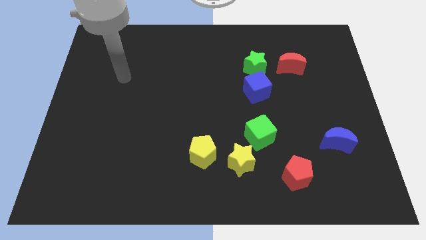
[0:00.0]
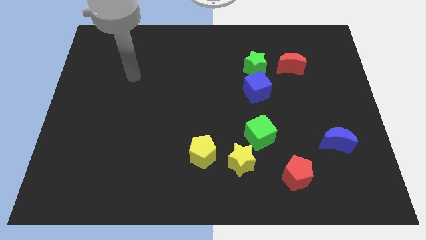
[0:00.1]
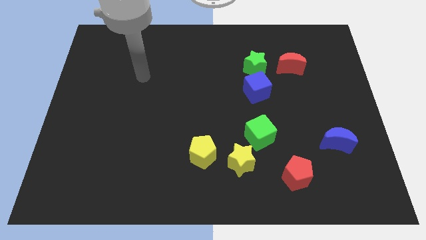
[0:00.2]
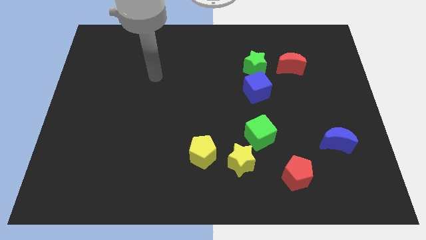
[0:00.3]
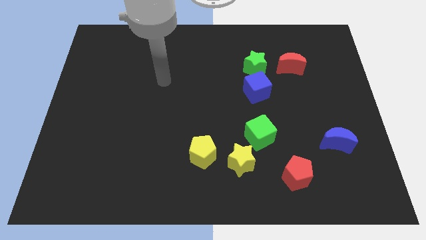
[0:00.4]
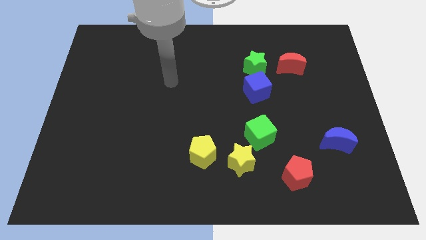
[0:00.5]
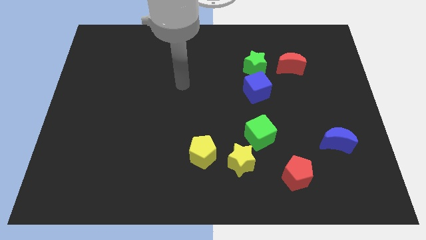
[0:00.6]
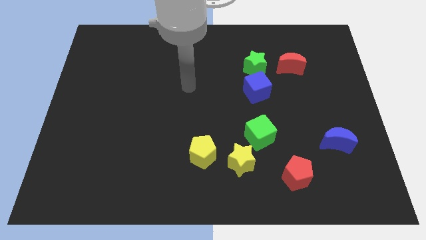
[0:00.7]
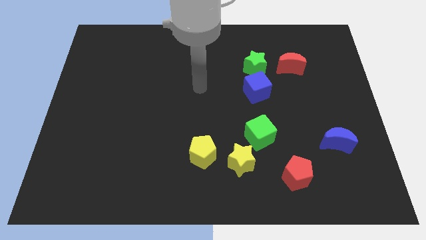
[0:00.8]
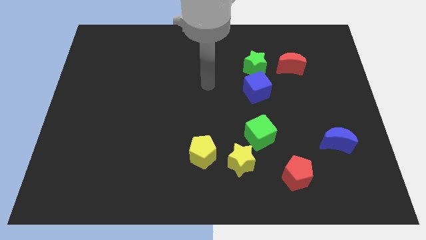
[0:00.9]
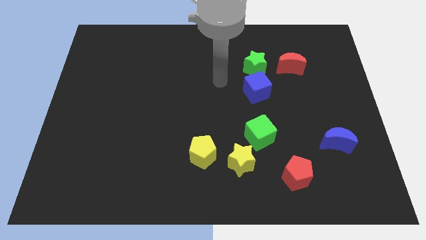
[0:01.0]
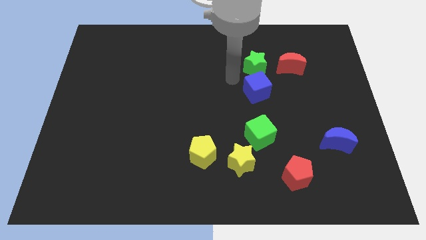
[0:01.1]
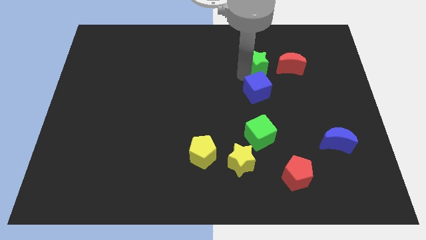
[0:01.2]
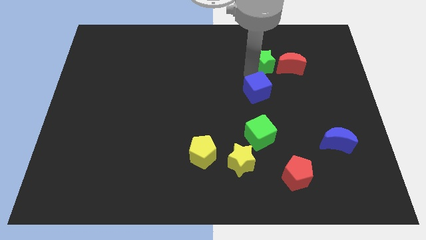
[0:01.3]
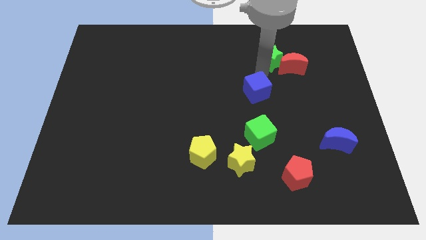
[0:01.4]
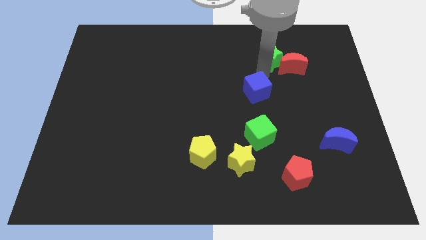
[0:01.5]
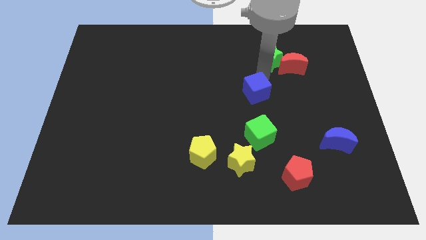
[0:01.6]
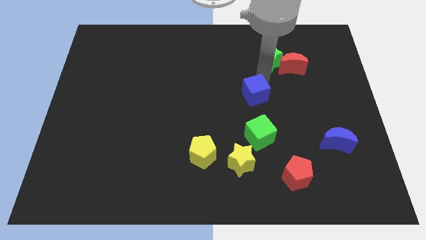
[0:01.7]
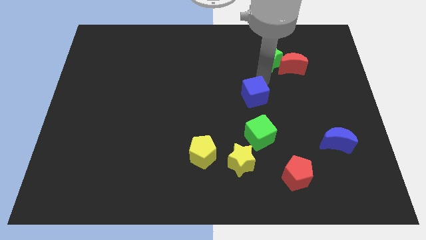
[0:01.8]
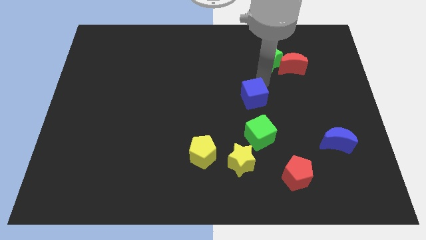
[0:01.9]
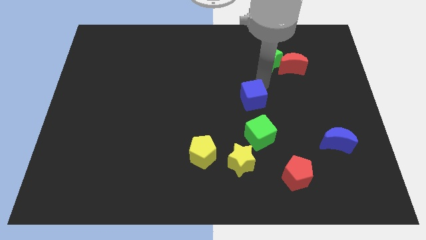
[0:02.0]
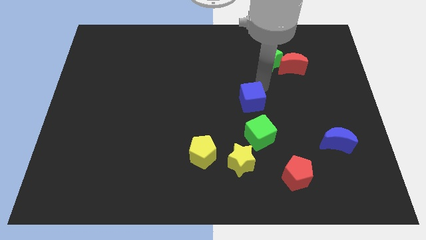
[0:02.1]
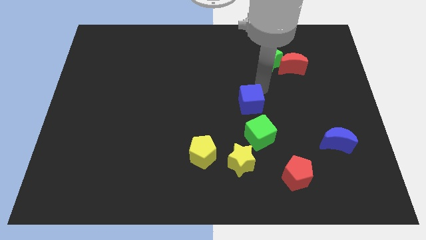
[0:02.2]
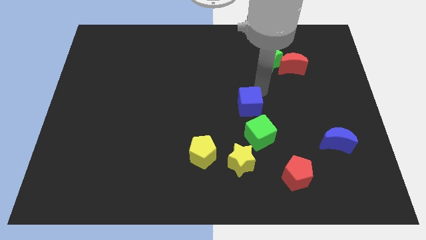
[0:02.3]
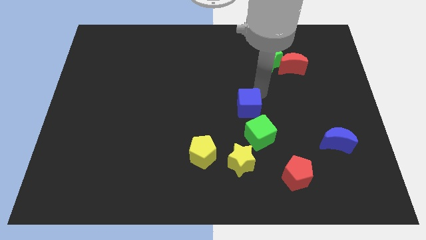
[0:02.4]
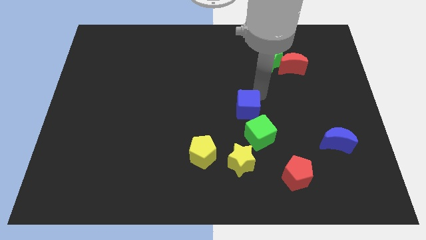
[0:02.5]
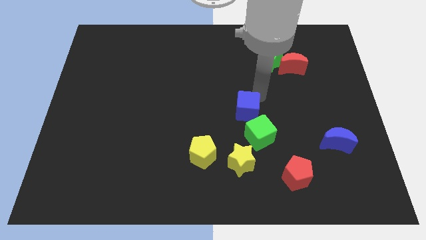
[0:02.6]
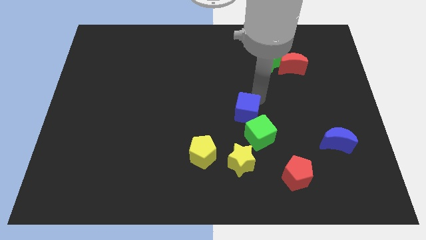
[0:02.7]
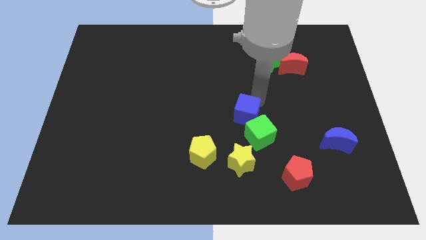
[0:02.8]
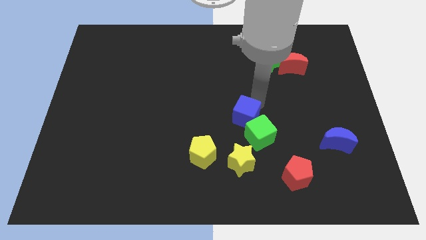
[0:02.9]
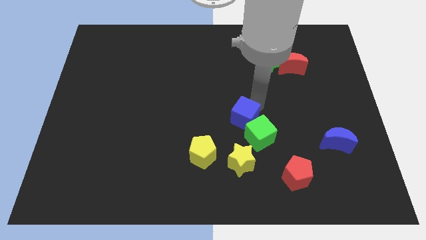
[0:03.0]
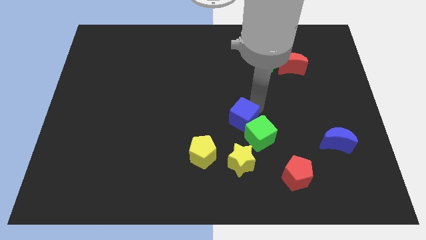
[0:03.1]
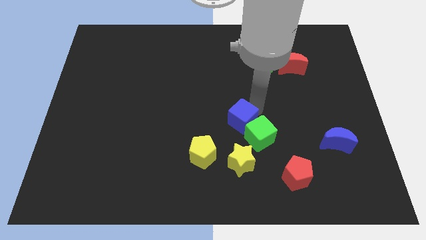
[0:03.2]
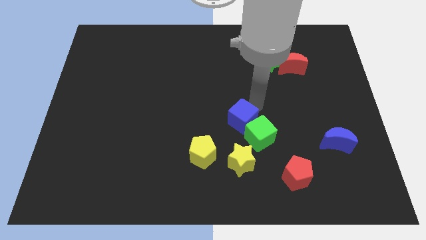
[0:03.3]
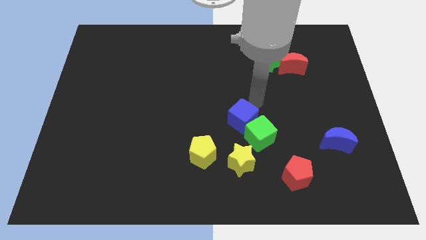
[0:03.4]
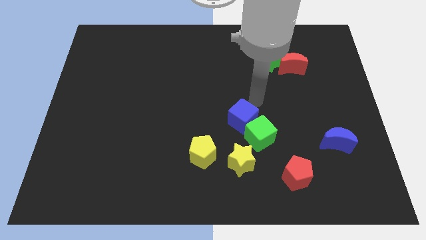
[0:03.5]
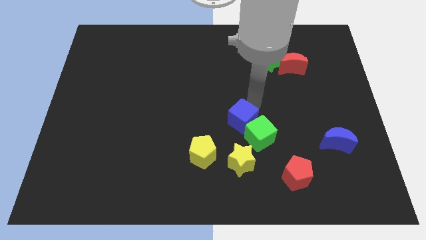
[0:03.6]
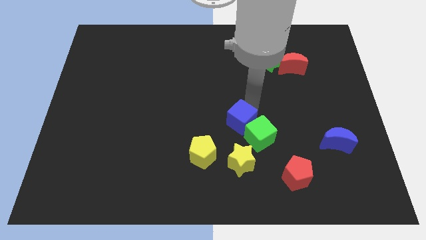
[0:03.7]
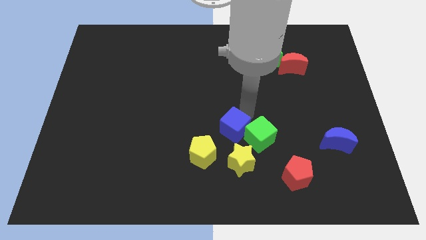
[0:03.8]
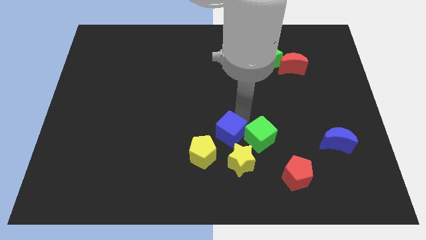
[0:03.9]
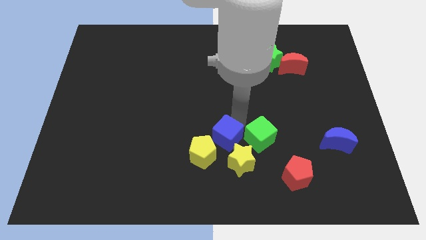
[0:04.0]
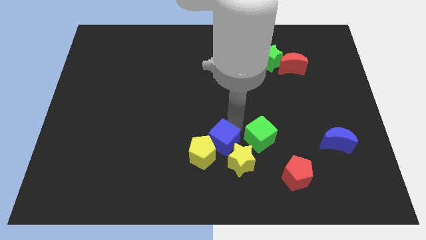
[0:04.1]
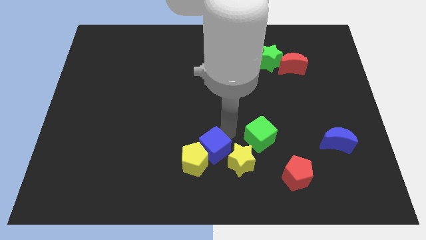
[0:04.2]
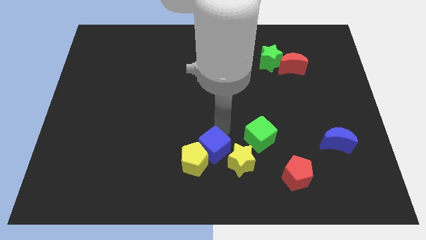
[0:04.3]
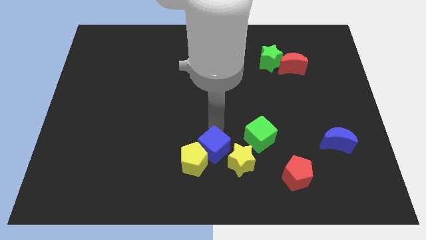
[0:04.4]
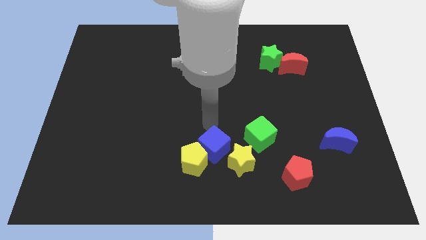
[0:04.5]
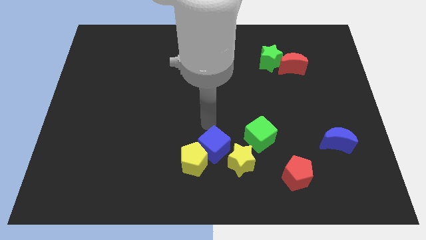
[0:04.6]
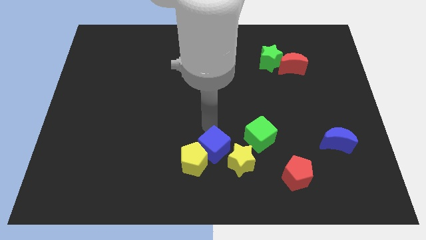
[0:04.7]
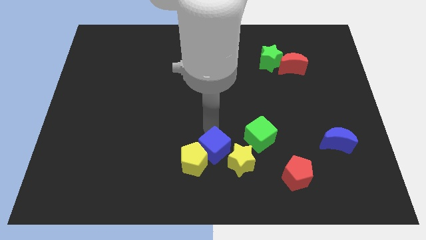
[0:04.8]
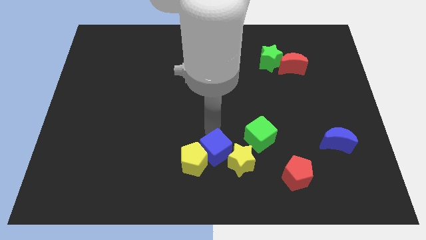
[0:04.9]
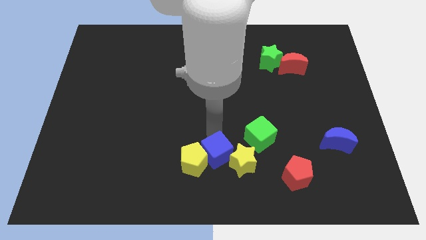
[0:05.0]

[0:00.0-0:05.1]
put the blue cube to the bottom side

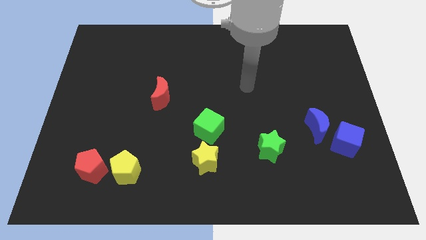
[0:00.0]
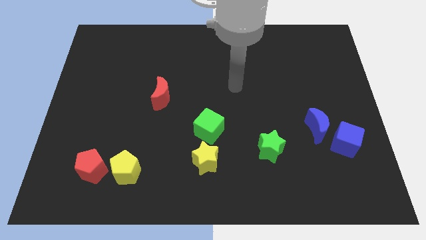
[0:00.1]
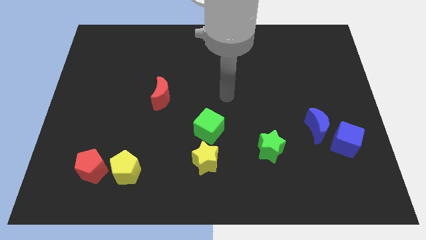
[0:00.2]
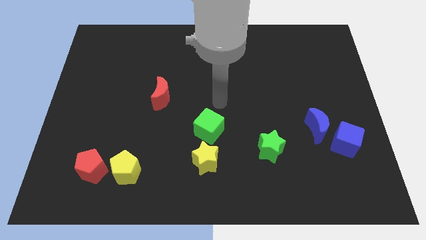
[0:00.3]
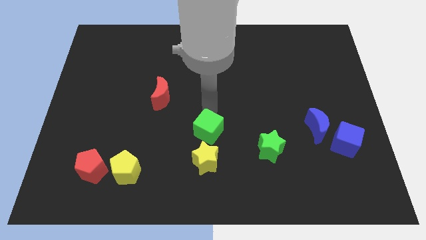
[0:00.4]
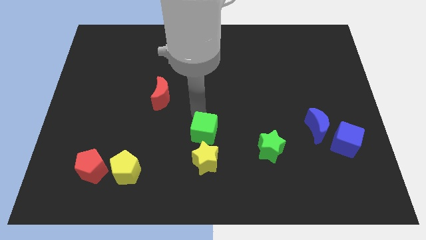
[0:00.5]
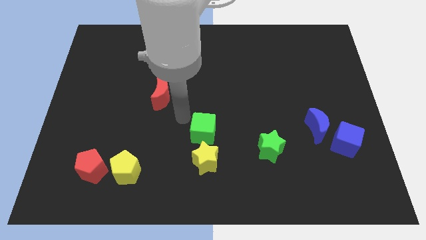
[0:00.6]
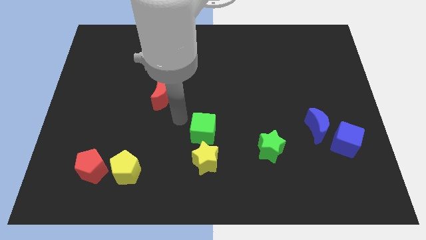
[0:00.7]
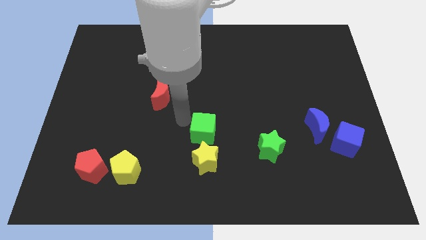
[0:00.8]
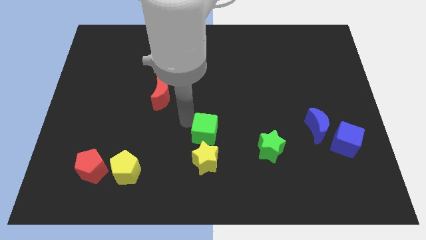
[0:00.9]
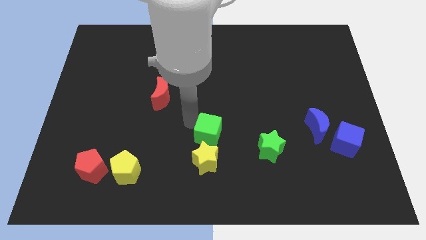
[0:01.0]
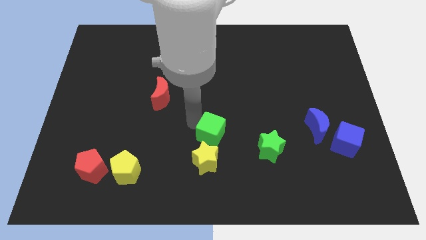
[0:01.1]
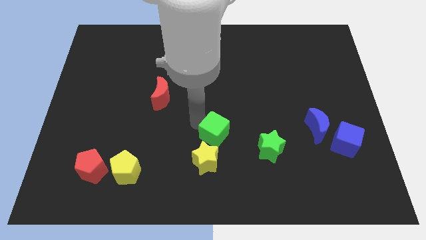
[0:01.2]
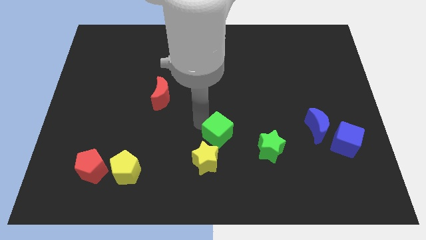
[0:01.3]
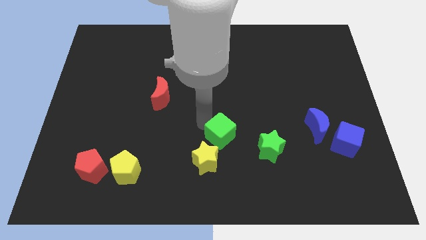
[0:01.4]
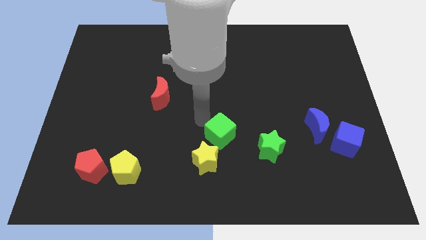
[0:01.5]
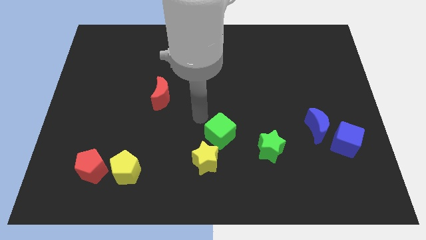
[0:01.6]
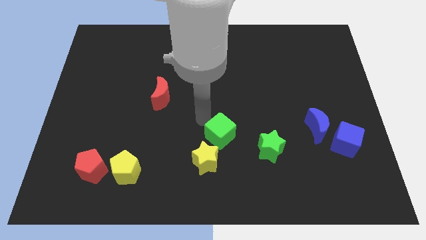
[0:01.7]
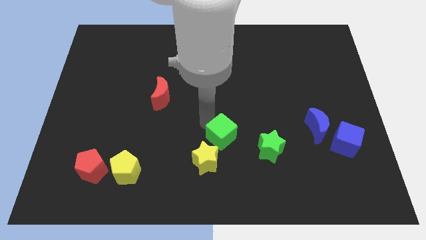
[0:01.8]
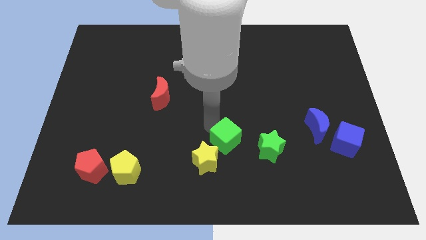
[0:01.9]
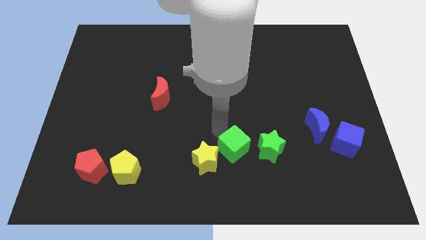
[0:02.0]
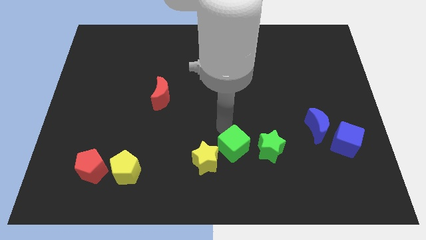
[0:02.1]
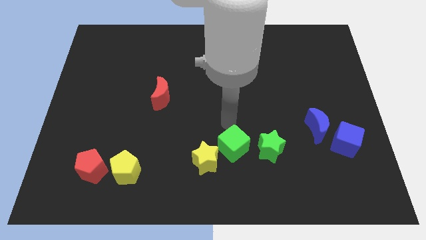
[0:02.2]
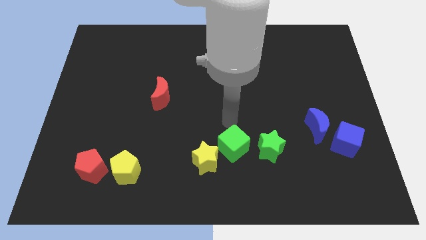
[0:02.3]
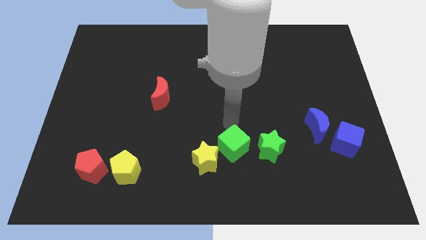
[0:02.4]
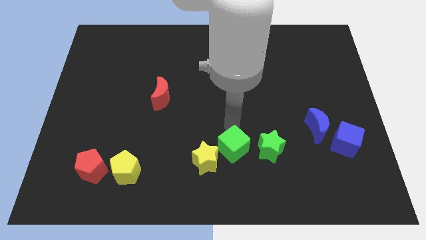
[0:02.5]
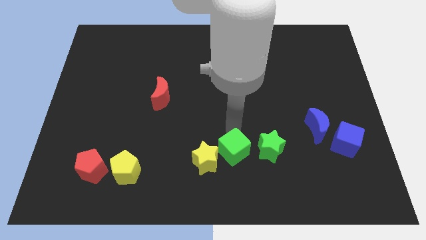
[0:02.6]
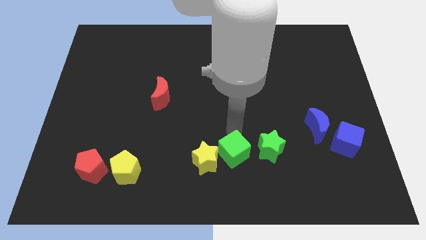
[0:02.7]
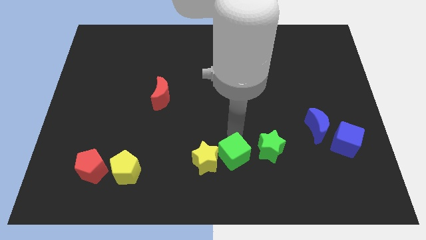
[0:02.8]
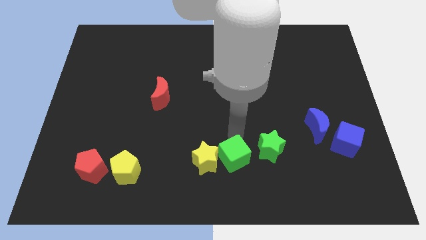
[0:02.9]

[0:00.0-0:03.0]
put the green cube to the bottom
